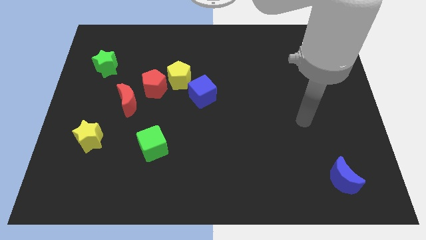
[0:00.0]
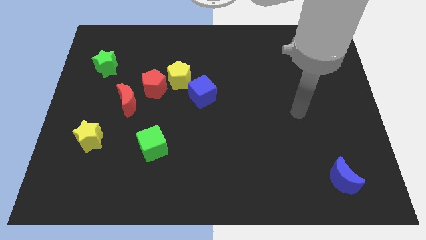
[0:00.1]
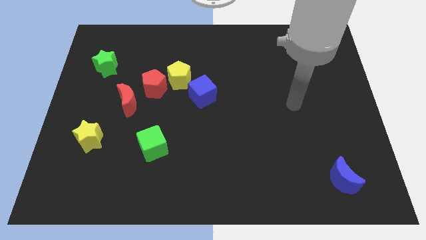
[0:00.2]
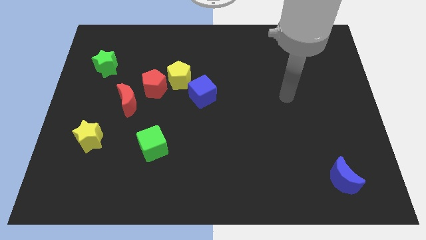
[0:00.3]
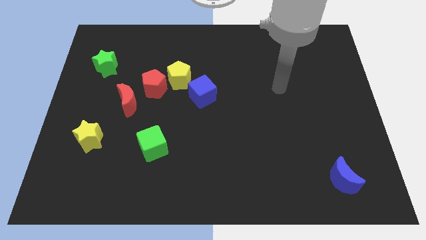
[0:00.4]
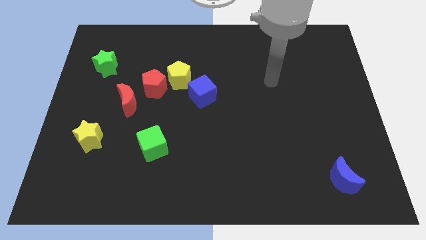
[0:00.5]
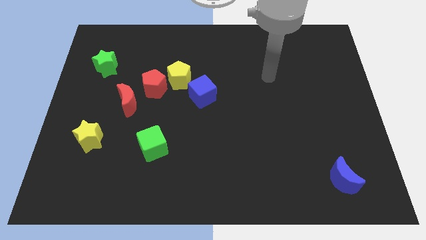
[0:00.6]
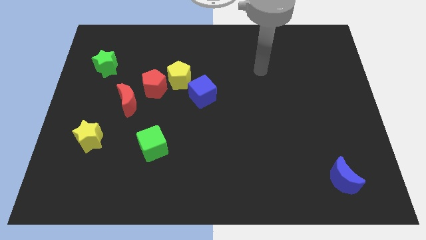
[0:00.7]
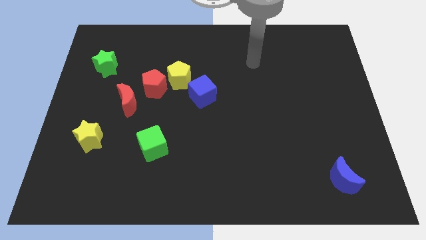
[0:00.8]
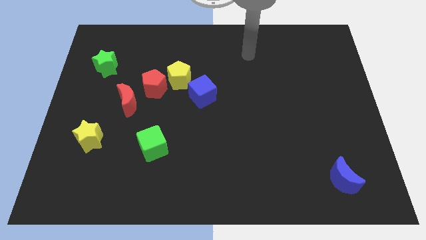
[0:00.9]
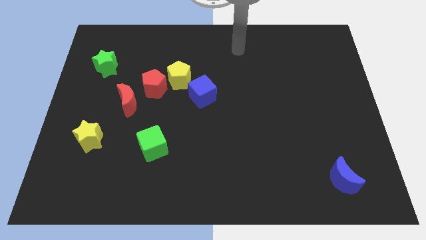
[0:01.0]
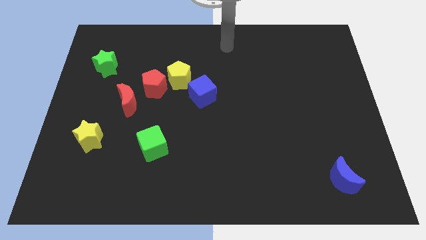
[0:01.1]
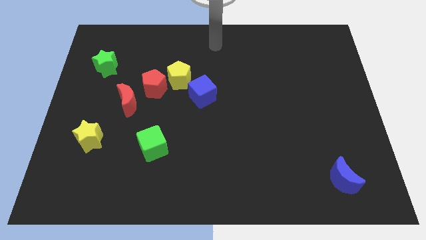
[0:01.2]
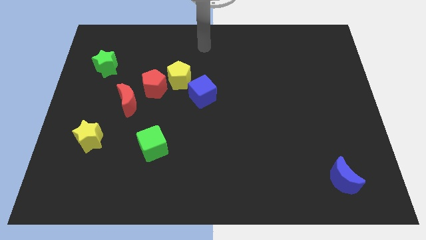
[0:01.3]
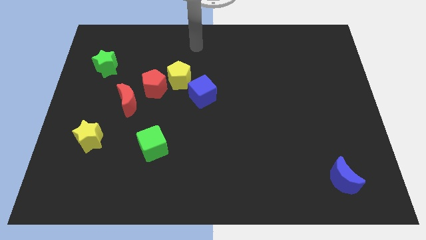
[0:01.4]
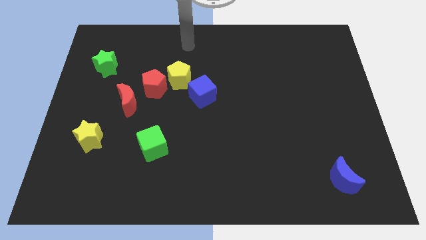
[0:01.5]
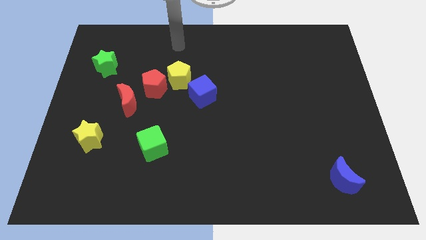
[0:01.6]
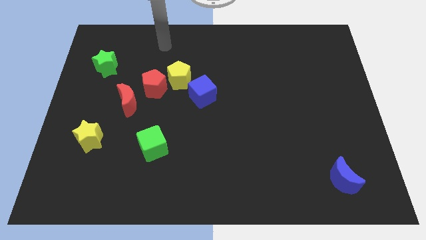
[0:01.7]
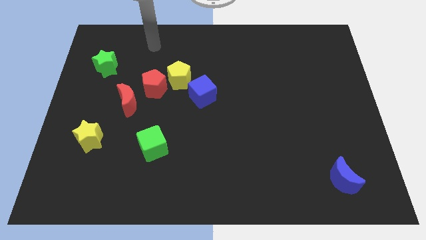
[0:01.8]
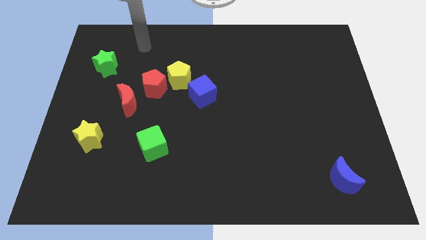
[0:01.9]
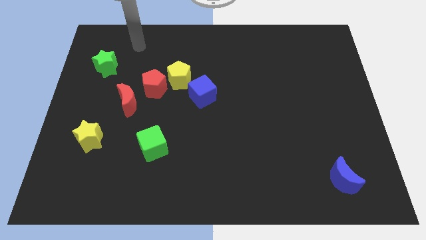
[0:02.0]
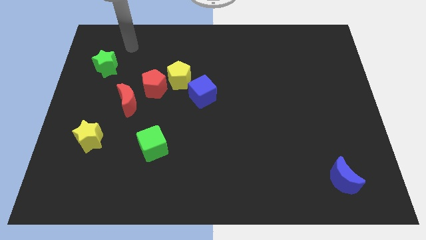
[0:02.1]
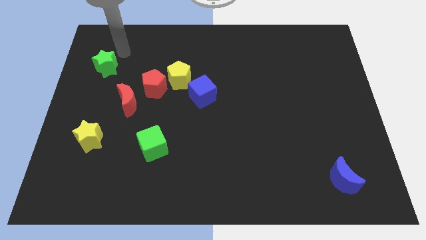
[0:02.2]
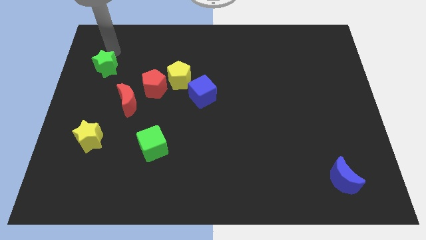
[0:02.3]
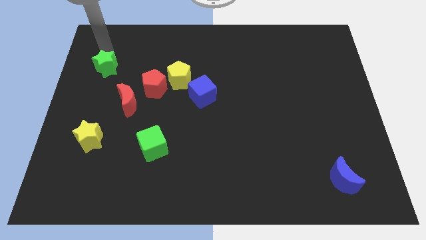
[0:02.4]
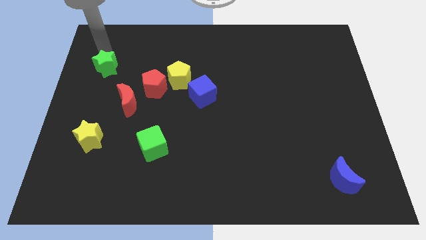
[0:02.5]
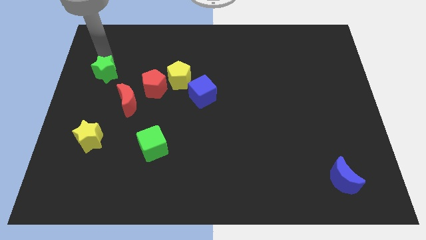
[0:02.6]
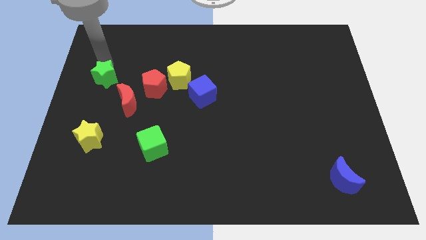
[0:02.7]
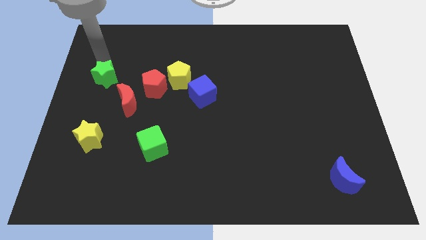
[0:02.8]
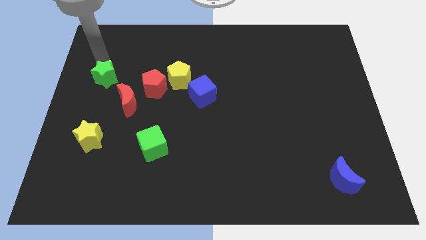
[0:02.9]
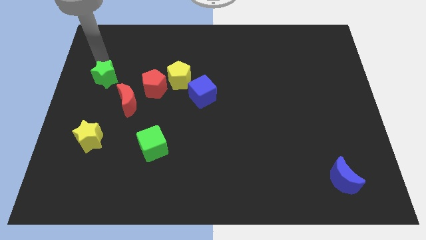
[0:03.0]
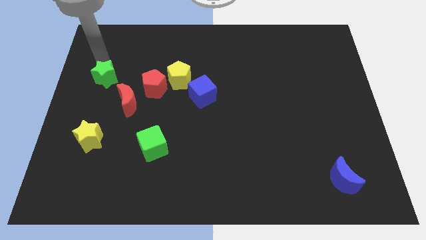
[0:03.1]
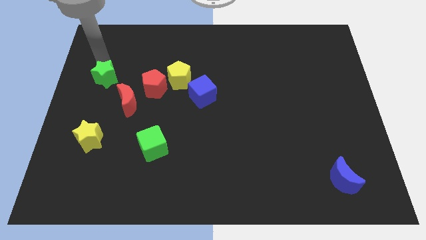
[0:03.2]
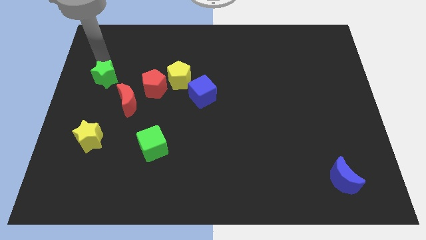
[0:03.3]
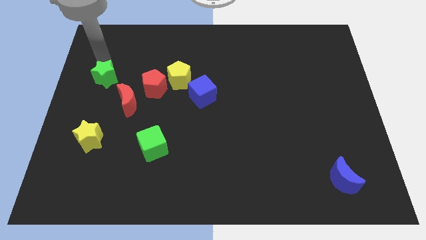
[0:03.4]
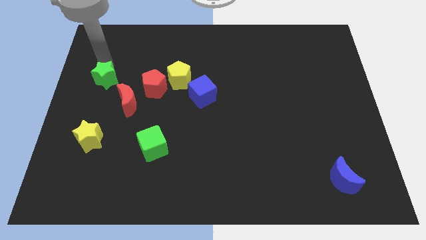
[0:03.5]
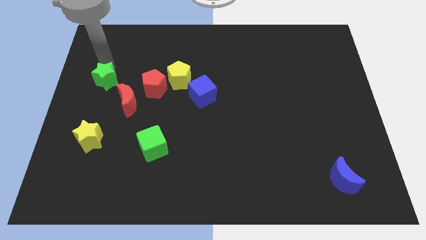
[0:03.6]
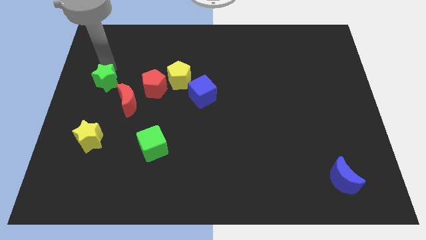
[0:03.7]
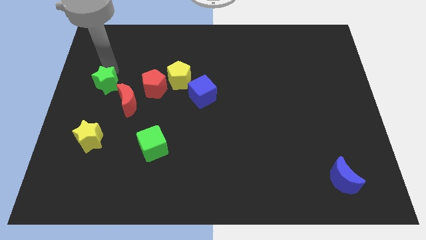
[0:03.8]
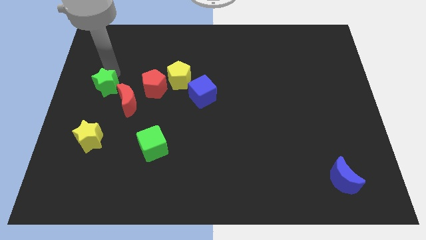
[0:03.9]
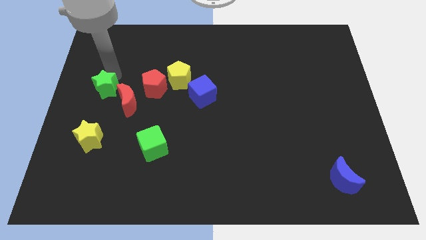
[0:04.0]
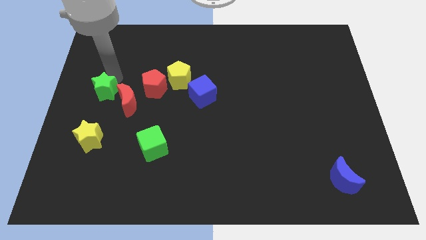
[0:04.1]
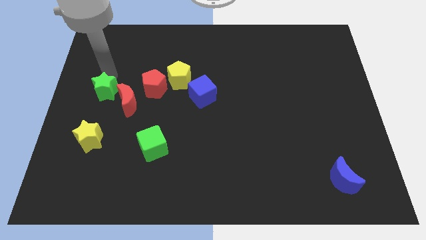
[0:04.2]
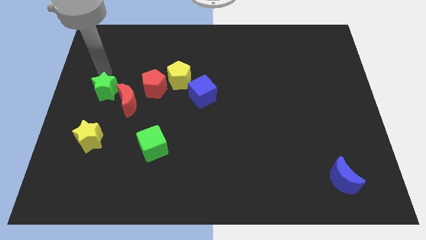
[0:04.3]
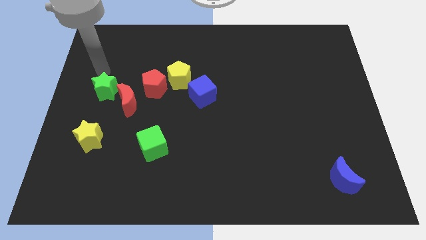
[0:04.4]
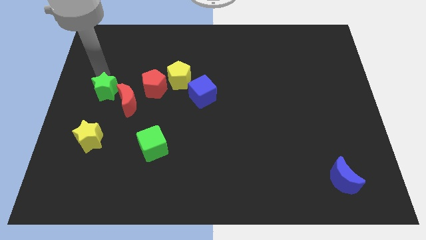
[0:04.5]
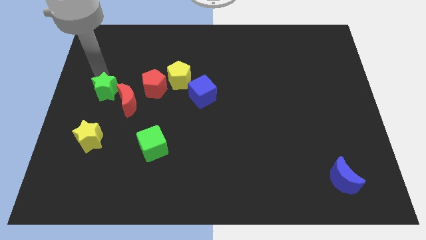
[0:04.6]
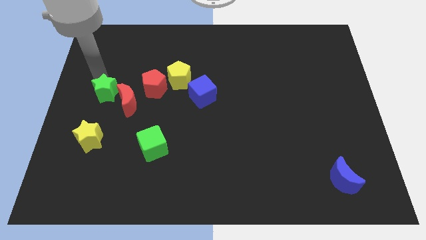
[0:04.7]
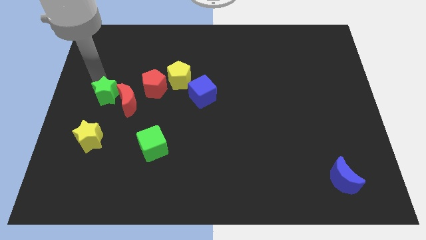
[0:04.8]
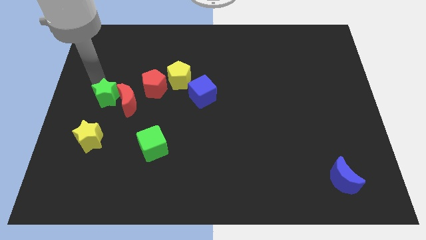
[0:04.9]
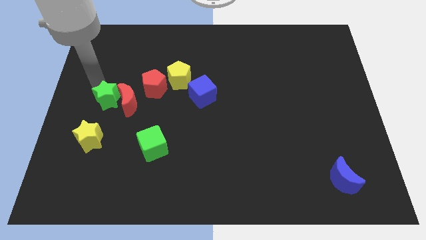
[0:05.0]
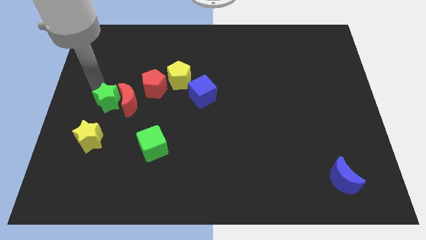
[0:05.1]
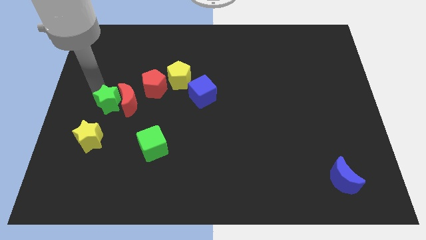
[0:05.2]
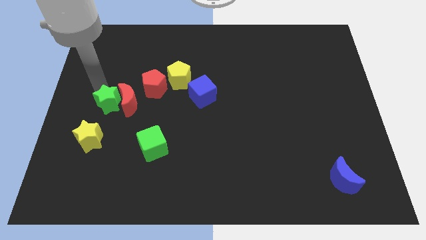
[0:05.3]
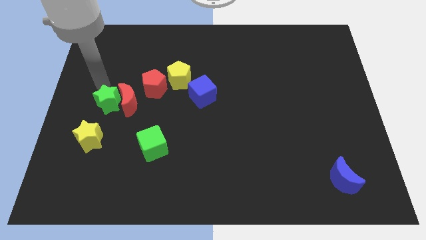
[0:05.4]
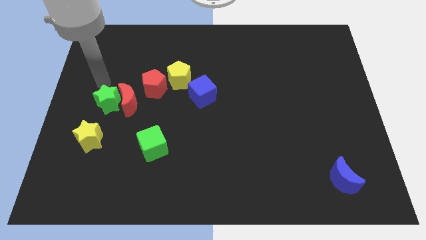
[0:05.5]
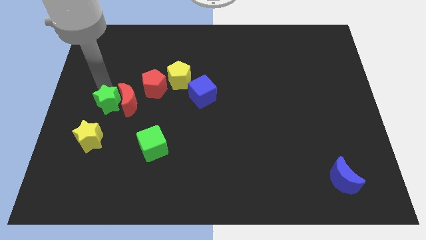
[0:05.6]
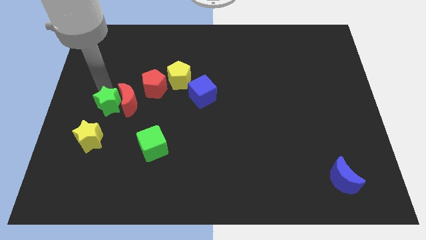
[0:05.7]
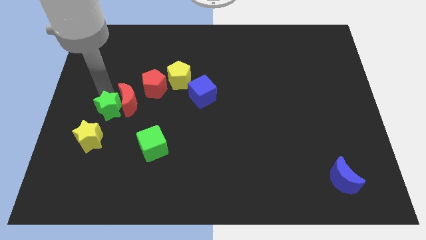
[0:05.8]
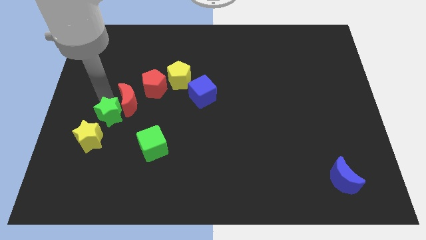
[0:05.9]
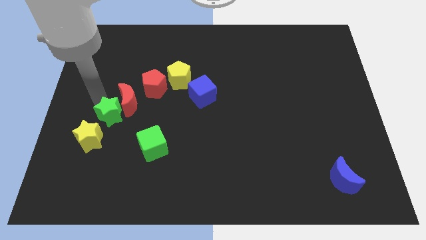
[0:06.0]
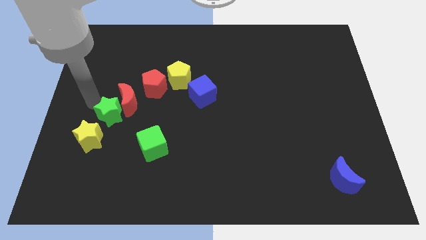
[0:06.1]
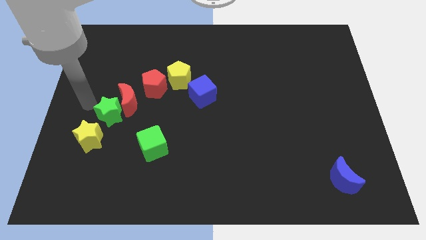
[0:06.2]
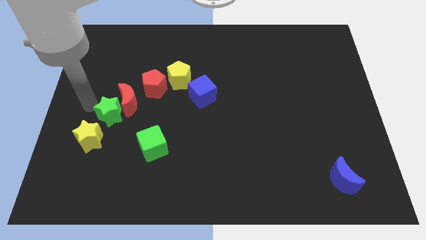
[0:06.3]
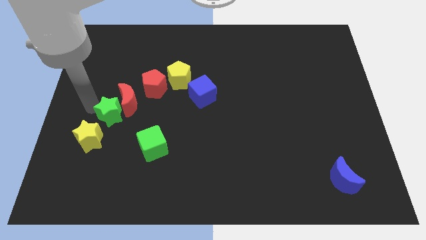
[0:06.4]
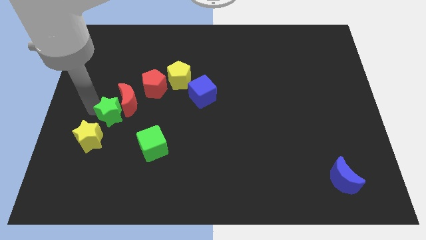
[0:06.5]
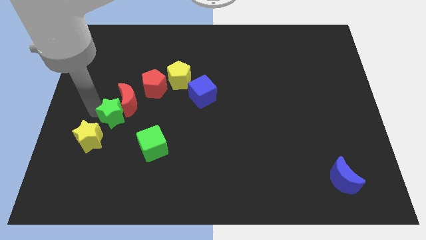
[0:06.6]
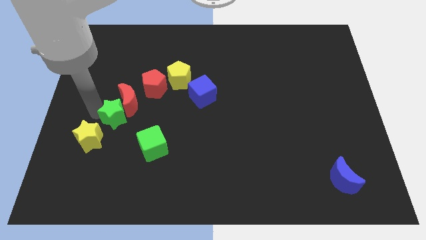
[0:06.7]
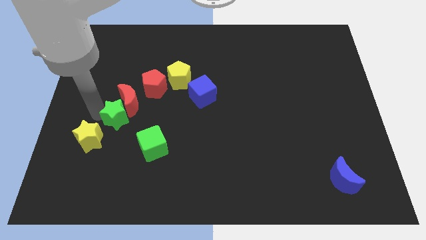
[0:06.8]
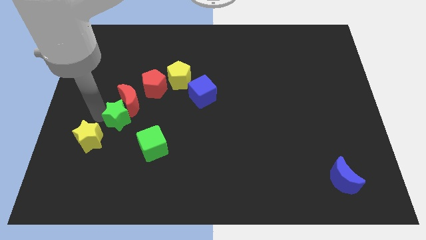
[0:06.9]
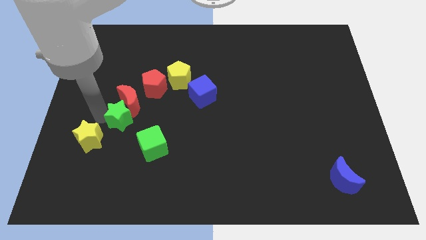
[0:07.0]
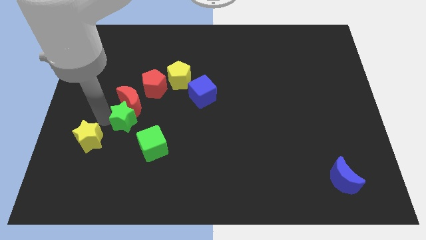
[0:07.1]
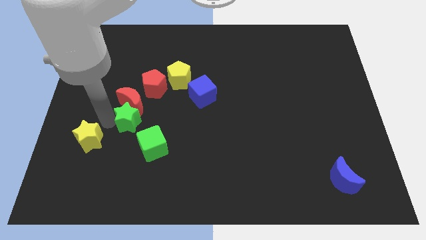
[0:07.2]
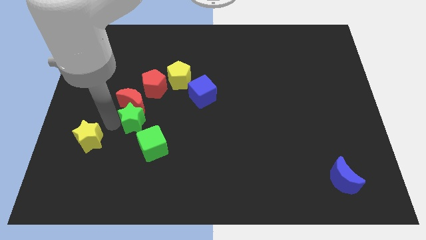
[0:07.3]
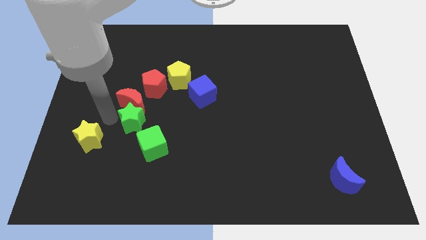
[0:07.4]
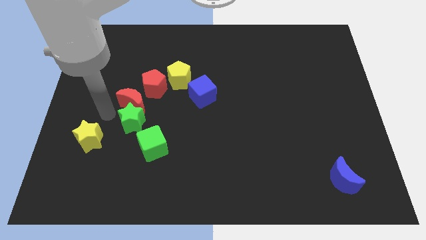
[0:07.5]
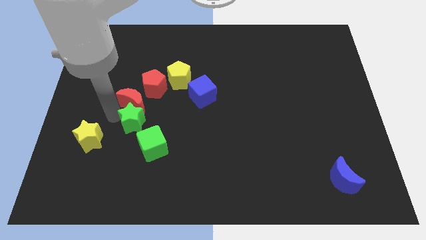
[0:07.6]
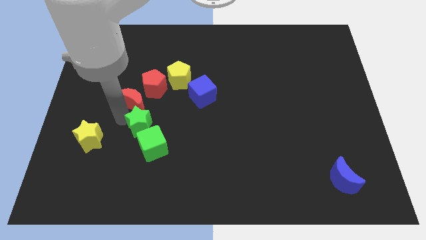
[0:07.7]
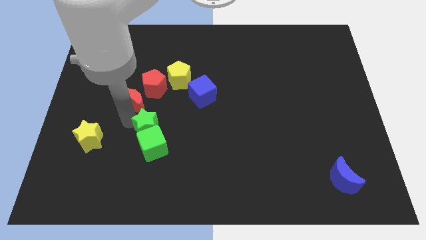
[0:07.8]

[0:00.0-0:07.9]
move the green star downwards and right
